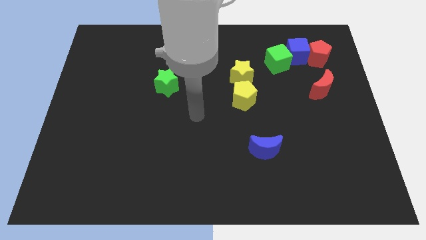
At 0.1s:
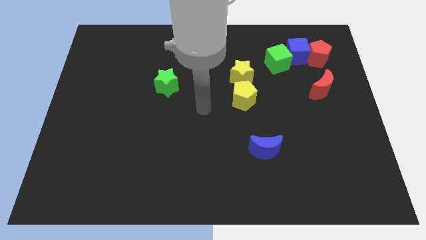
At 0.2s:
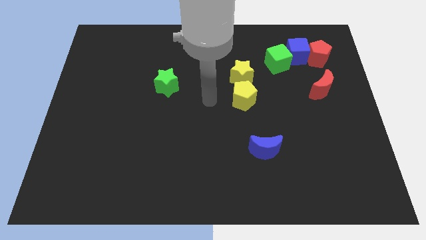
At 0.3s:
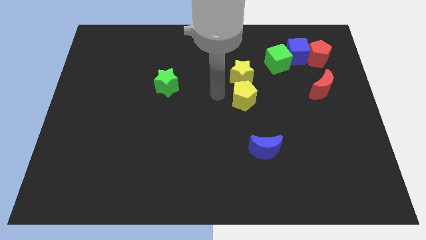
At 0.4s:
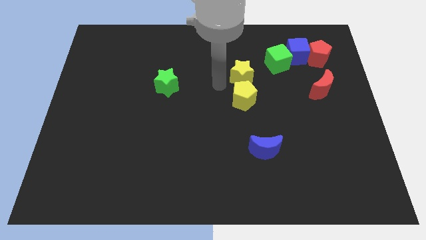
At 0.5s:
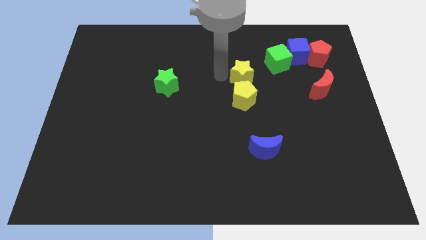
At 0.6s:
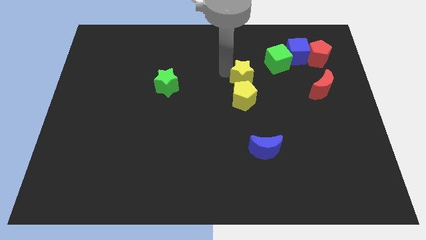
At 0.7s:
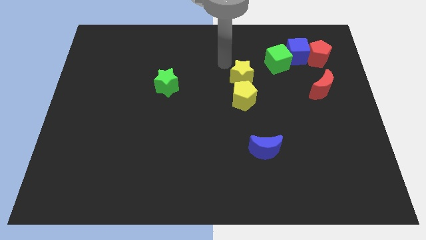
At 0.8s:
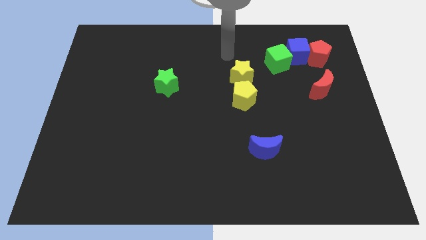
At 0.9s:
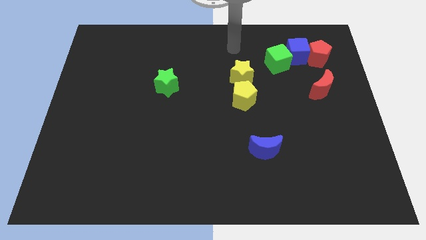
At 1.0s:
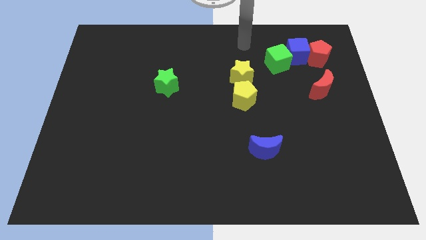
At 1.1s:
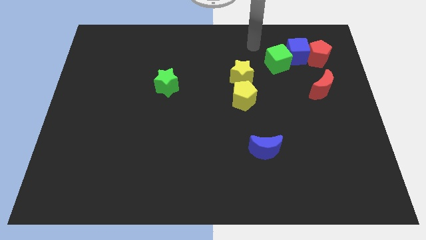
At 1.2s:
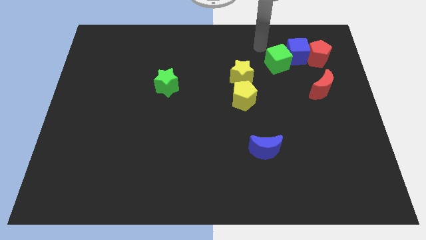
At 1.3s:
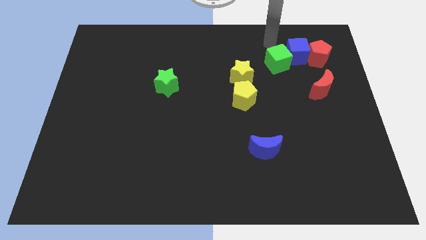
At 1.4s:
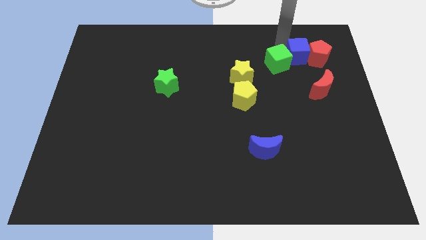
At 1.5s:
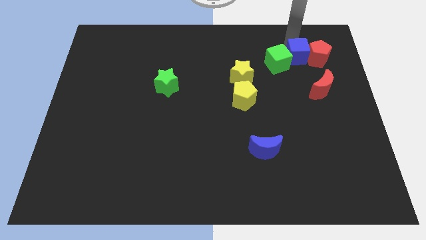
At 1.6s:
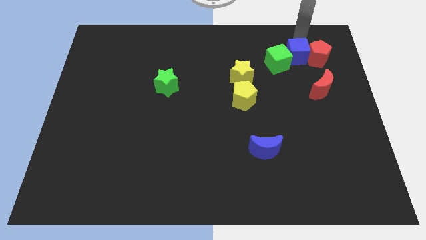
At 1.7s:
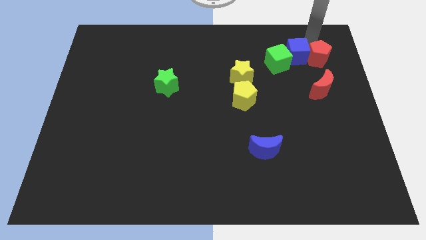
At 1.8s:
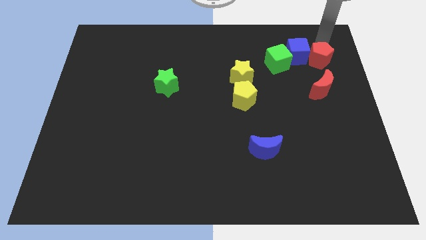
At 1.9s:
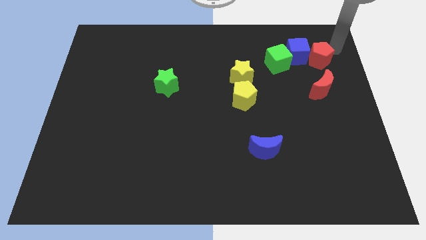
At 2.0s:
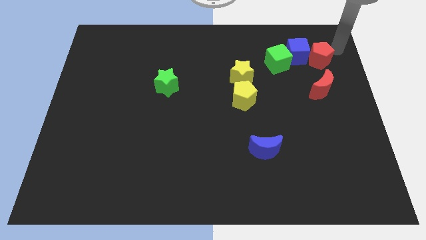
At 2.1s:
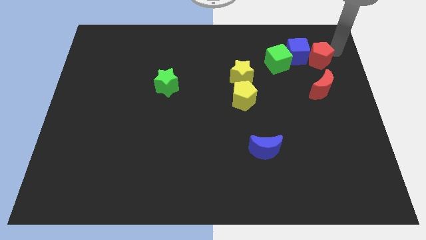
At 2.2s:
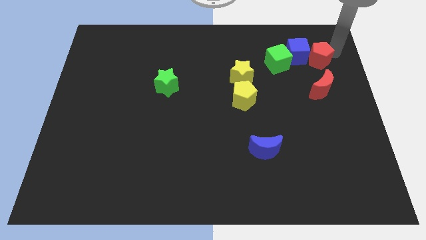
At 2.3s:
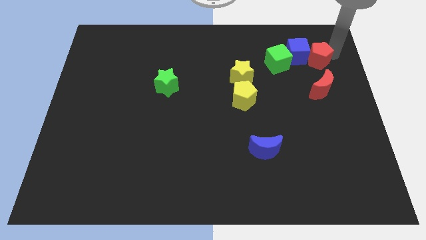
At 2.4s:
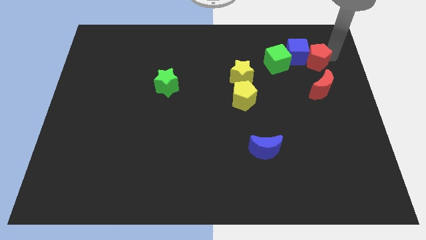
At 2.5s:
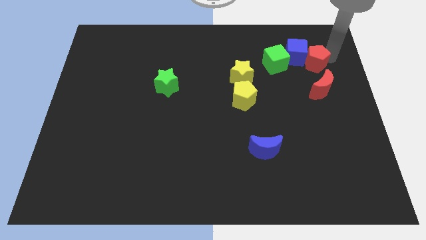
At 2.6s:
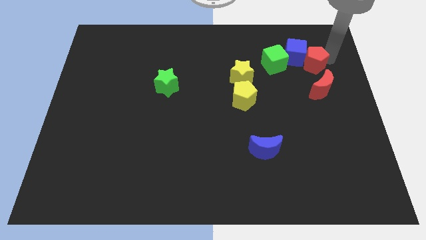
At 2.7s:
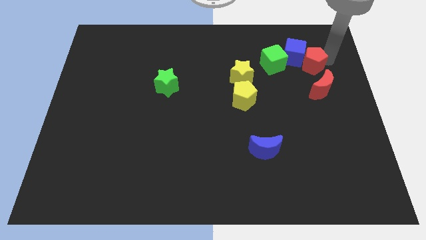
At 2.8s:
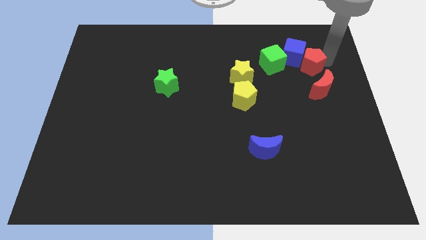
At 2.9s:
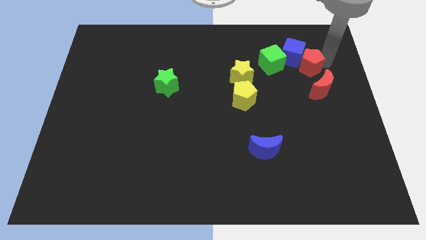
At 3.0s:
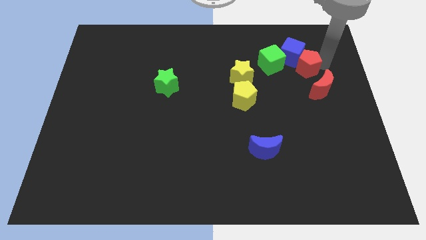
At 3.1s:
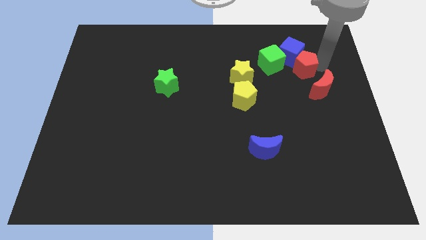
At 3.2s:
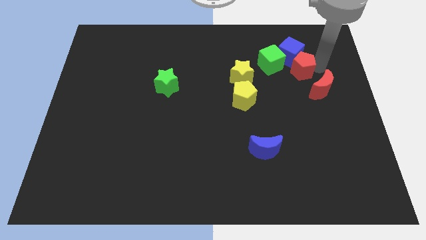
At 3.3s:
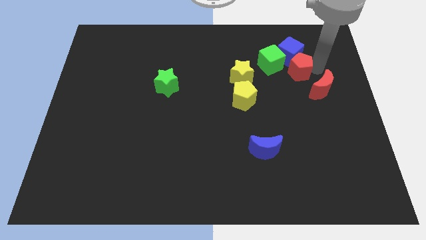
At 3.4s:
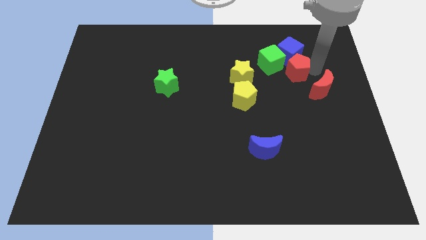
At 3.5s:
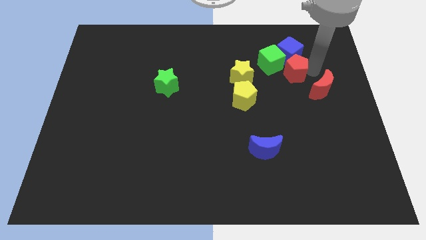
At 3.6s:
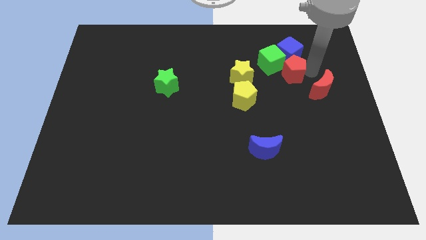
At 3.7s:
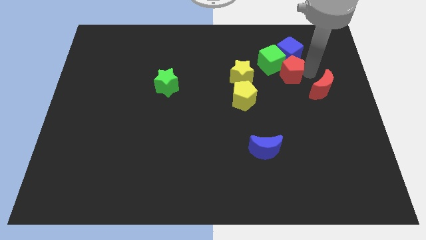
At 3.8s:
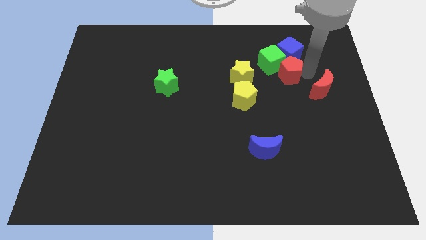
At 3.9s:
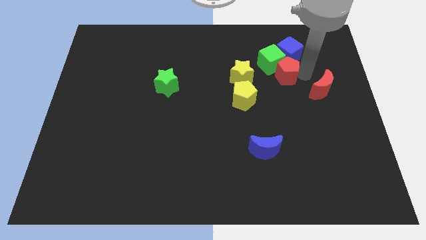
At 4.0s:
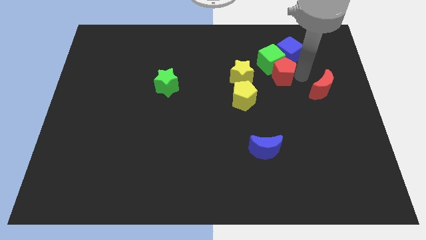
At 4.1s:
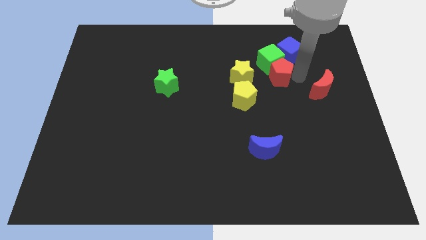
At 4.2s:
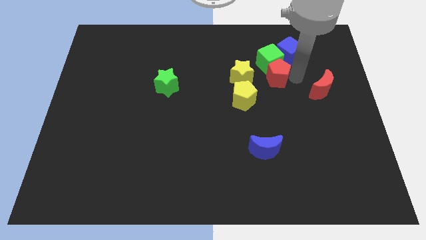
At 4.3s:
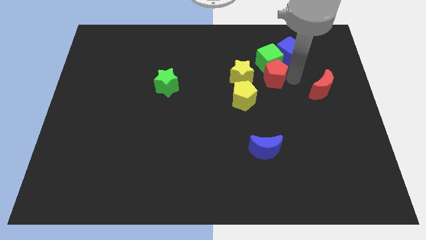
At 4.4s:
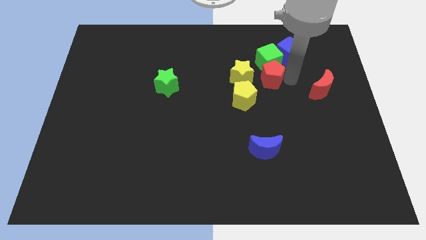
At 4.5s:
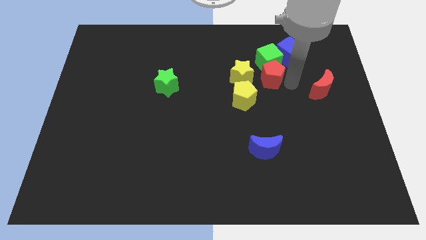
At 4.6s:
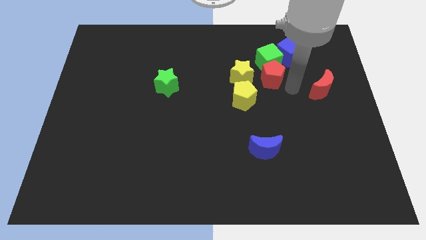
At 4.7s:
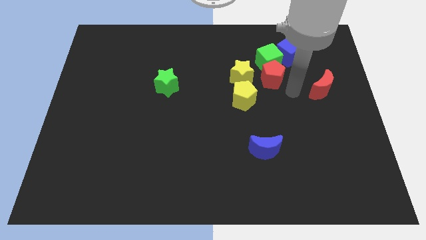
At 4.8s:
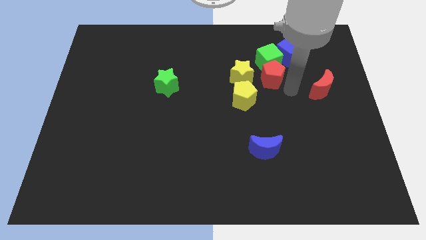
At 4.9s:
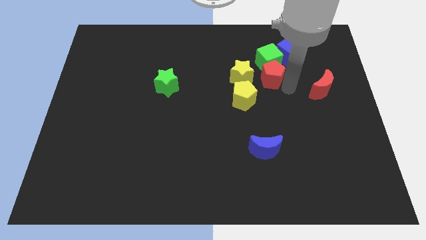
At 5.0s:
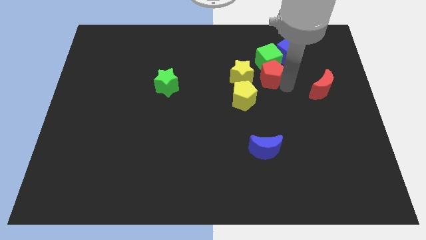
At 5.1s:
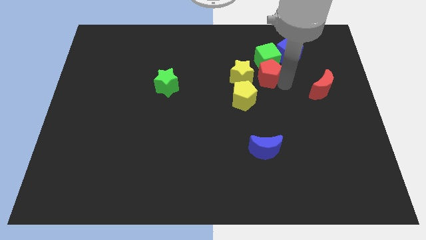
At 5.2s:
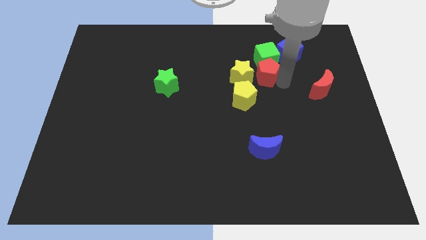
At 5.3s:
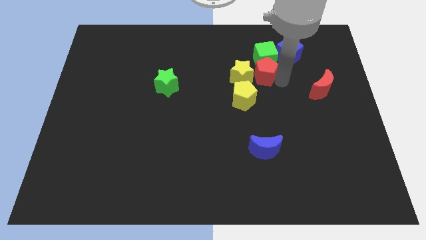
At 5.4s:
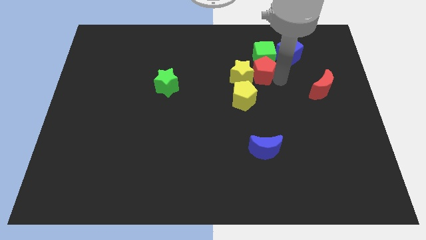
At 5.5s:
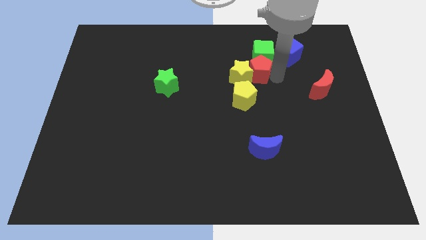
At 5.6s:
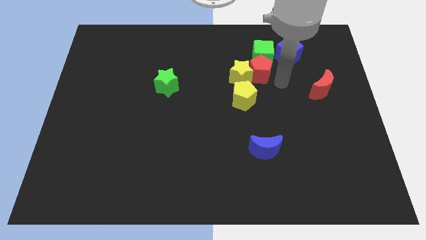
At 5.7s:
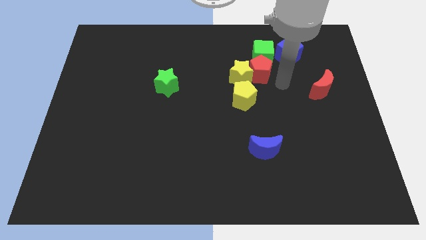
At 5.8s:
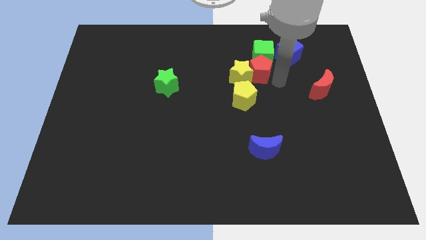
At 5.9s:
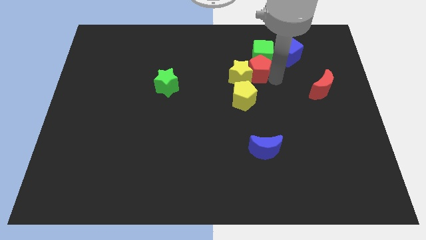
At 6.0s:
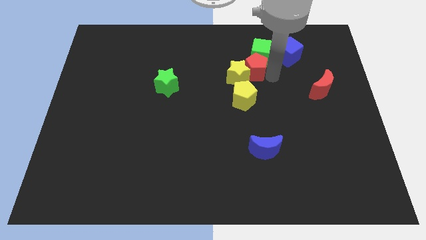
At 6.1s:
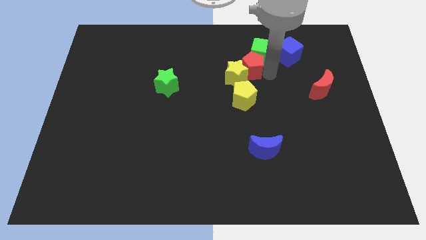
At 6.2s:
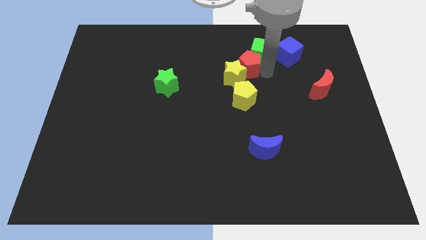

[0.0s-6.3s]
put the red pentagon left of the green cube

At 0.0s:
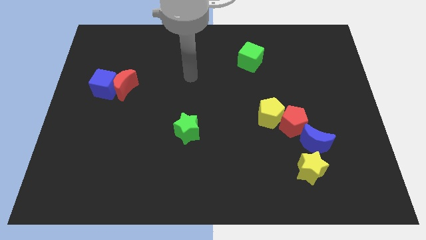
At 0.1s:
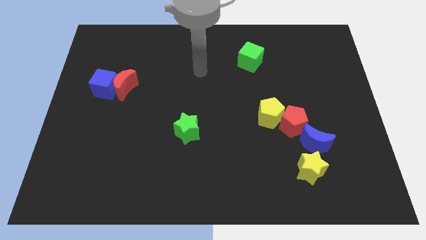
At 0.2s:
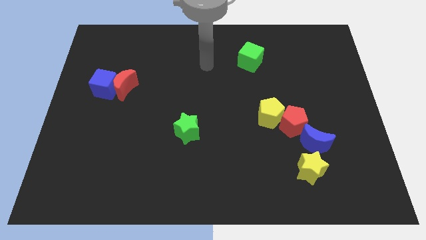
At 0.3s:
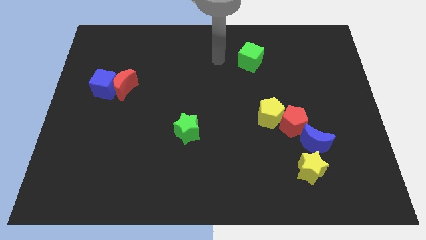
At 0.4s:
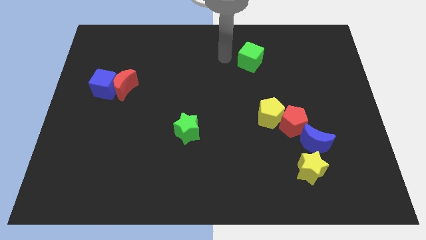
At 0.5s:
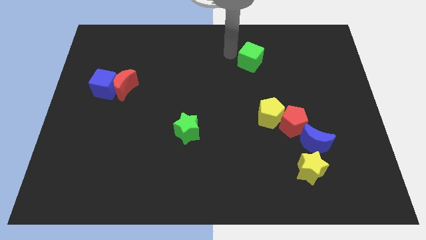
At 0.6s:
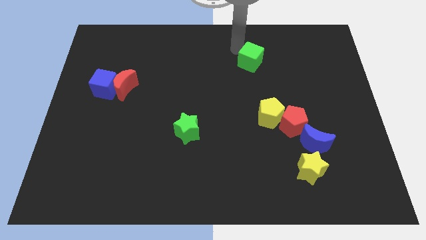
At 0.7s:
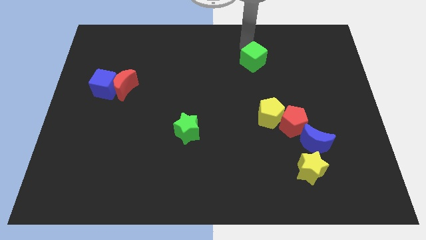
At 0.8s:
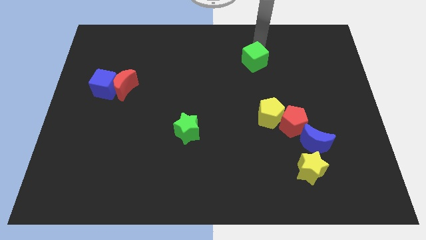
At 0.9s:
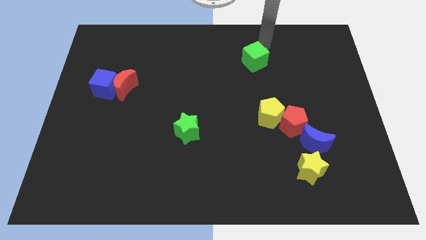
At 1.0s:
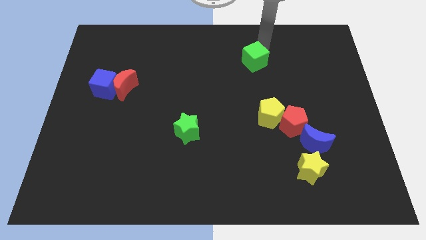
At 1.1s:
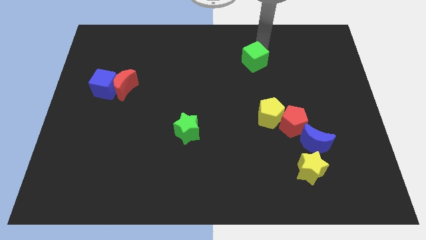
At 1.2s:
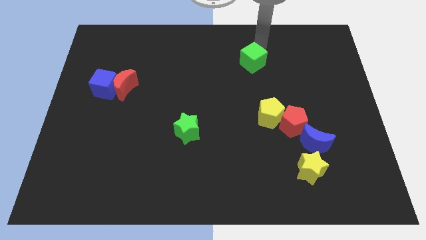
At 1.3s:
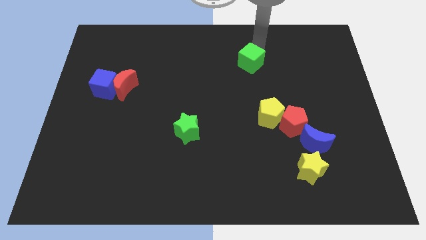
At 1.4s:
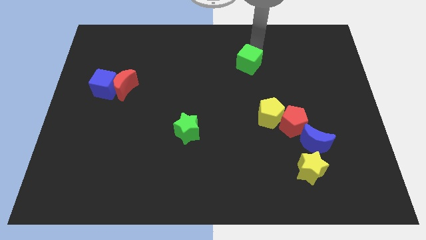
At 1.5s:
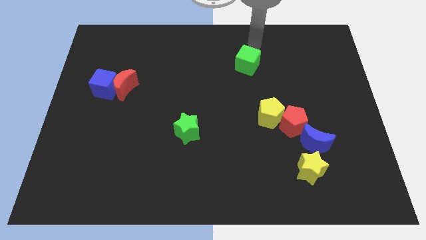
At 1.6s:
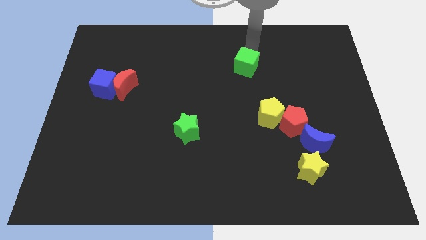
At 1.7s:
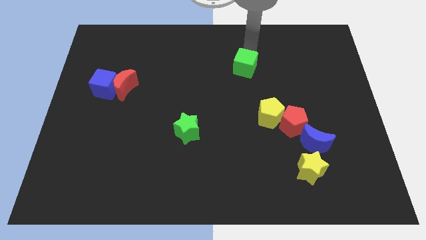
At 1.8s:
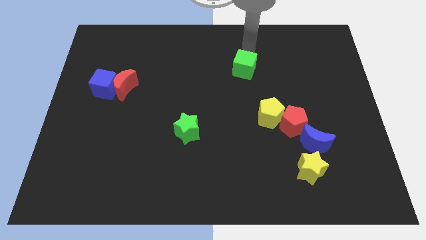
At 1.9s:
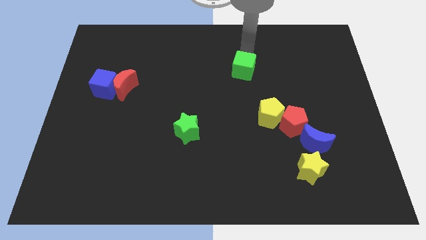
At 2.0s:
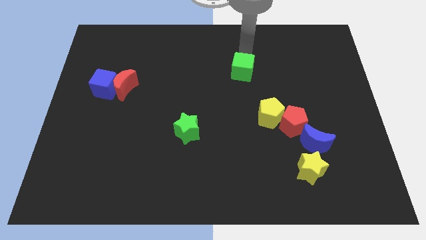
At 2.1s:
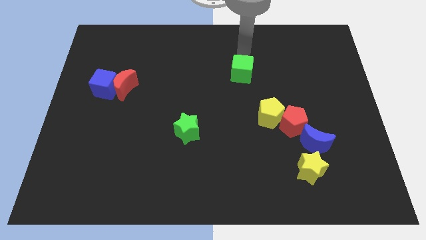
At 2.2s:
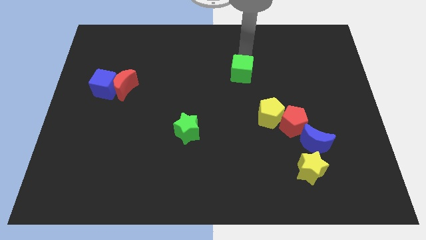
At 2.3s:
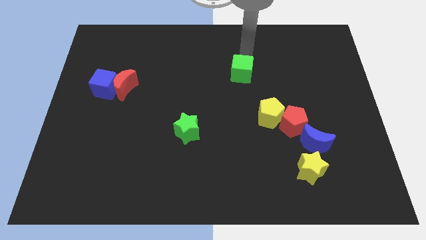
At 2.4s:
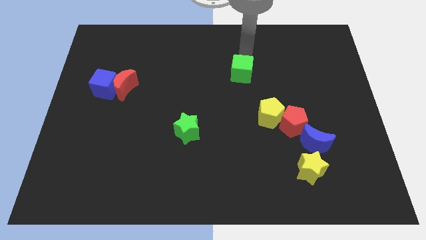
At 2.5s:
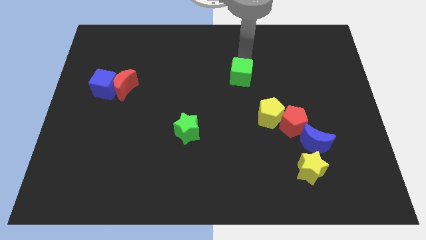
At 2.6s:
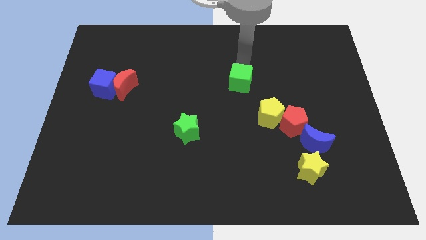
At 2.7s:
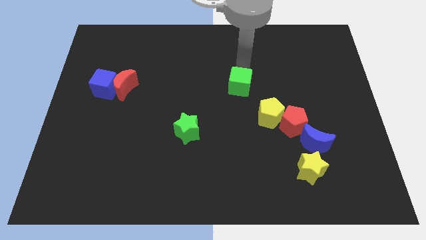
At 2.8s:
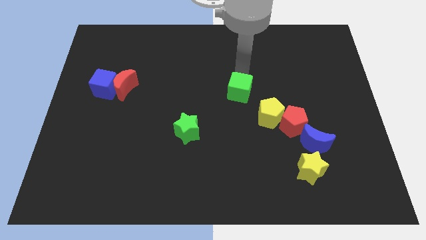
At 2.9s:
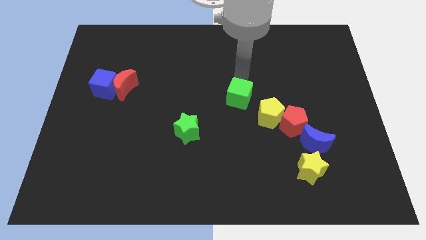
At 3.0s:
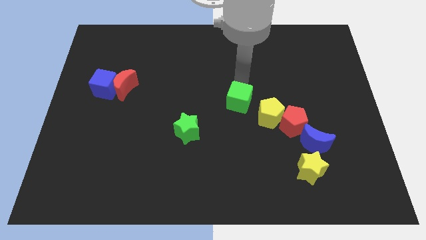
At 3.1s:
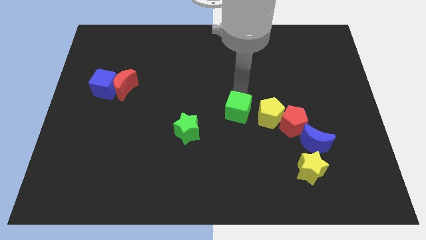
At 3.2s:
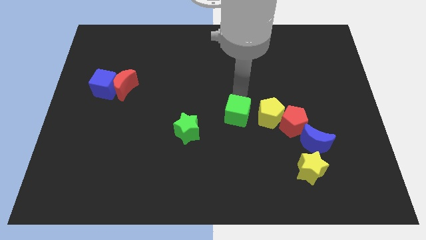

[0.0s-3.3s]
put the green cube to the right of the green star
